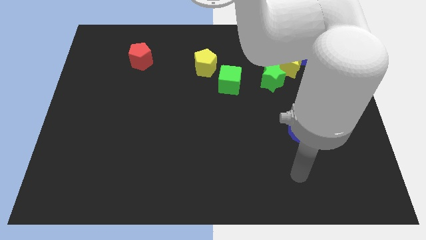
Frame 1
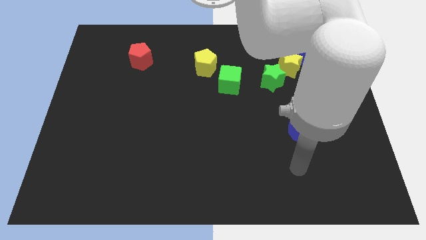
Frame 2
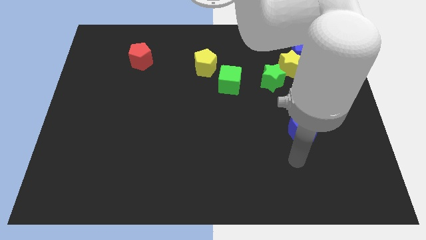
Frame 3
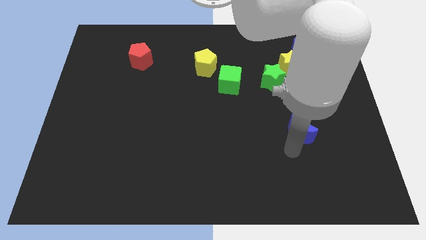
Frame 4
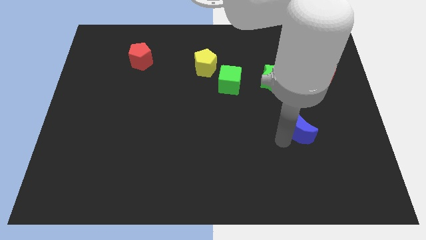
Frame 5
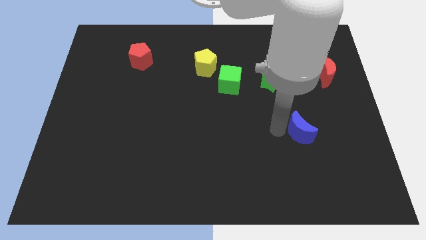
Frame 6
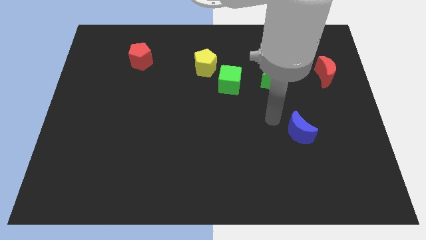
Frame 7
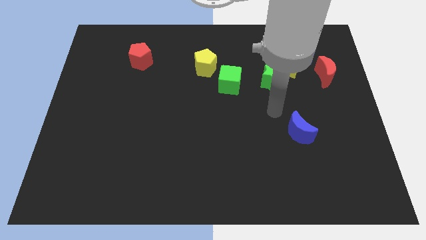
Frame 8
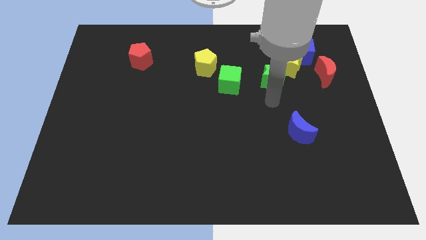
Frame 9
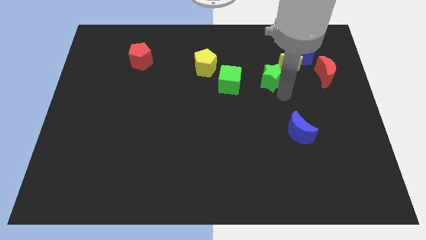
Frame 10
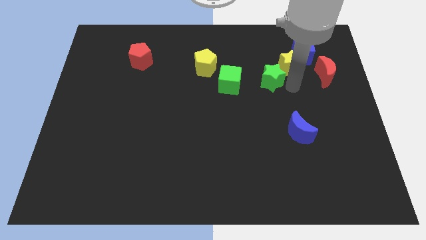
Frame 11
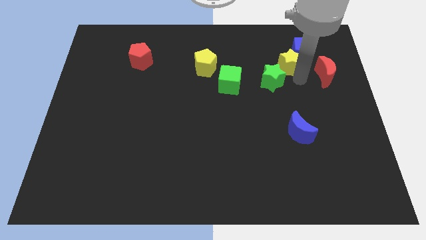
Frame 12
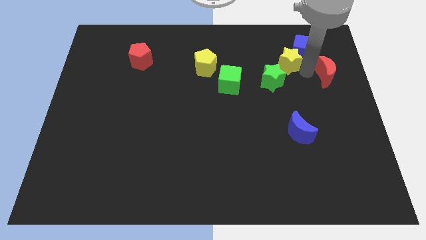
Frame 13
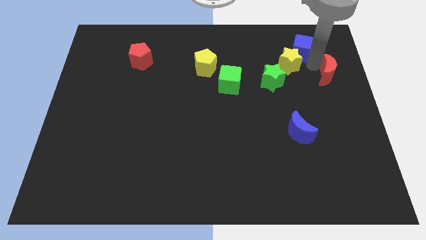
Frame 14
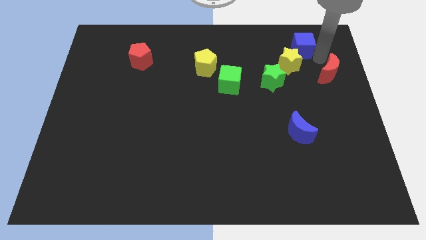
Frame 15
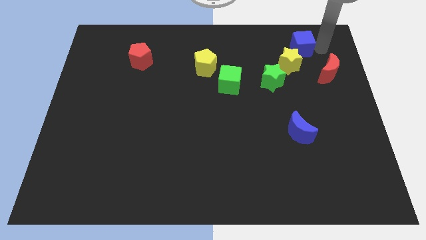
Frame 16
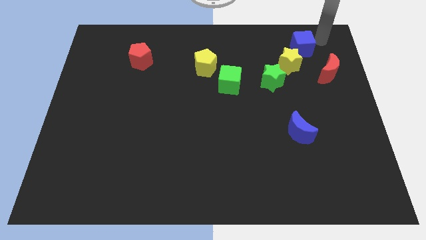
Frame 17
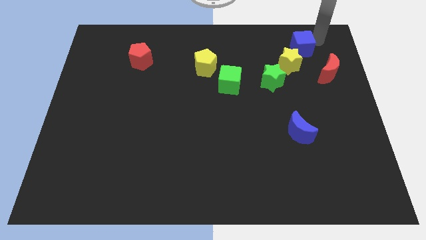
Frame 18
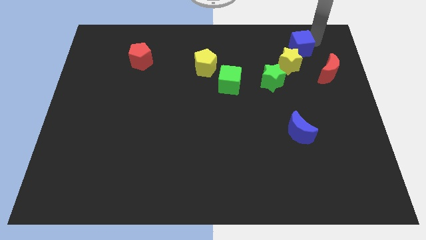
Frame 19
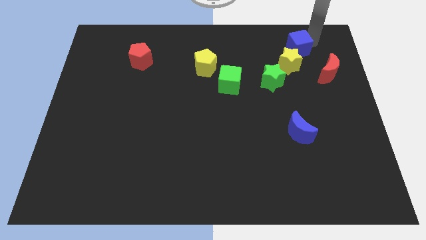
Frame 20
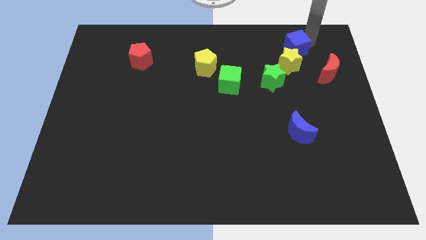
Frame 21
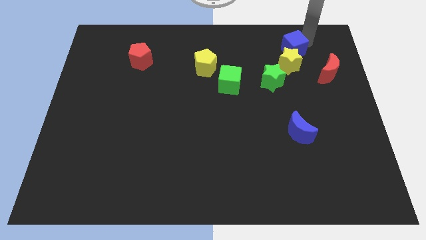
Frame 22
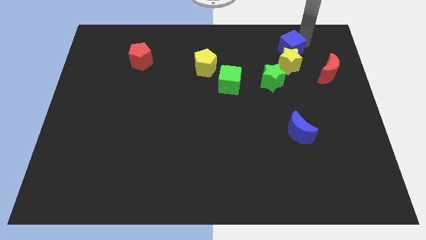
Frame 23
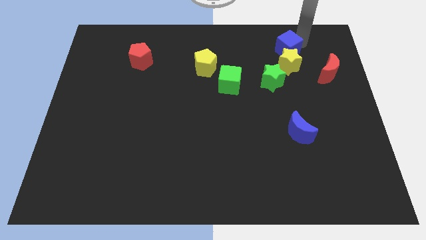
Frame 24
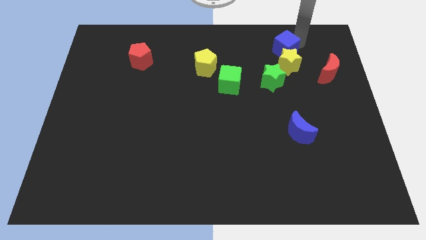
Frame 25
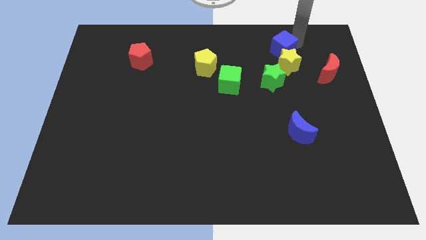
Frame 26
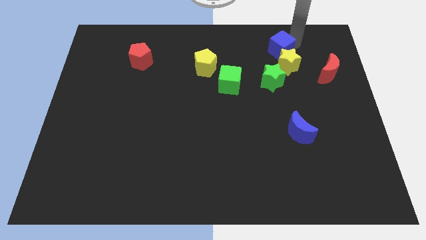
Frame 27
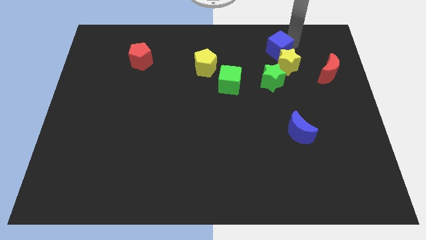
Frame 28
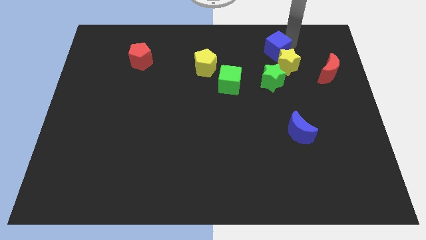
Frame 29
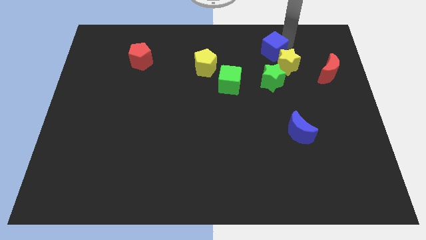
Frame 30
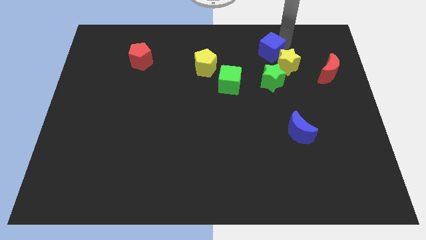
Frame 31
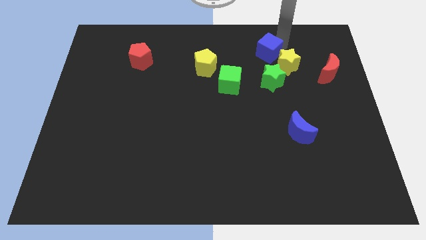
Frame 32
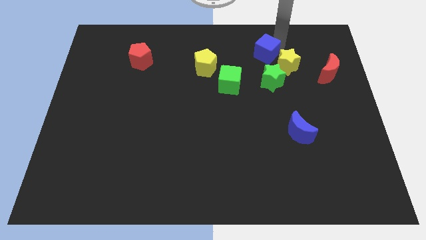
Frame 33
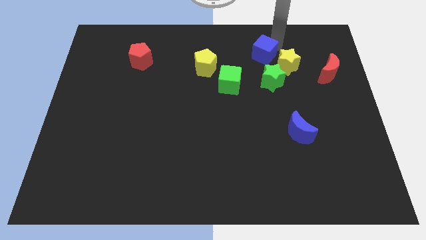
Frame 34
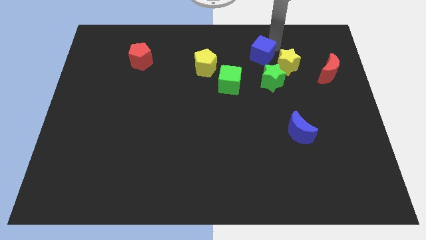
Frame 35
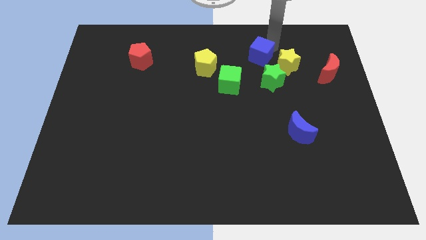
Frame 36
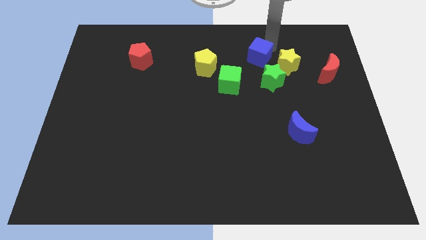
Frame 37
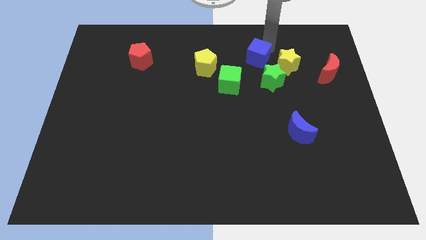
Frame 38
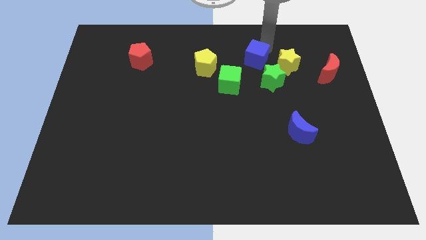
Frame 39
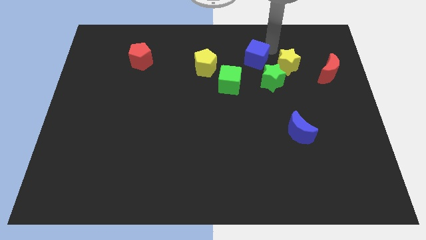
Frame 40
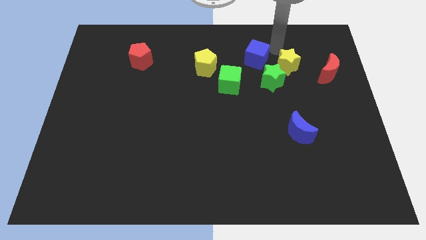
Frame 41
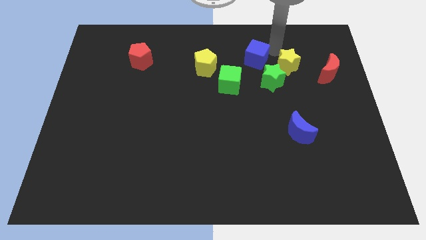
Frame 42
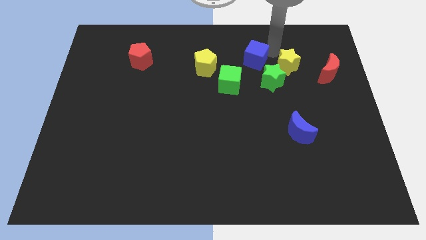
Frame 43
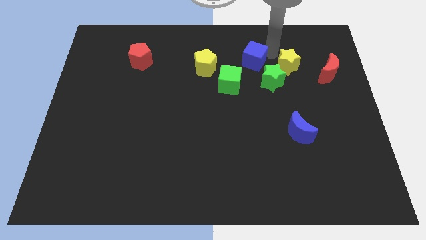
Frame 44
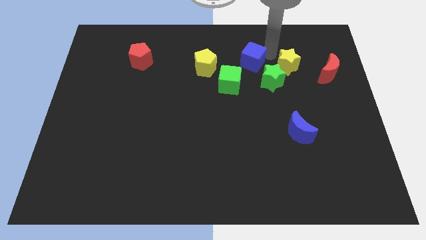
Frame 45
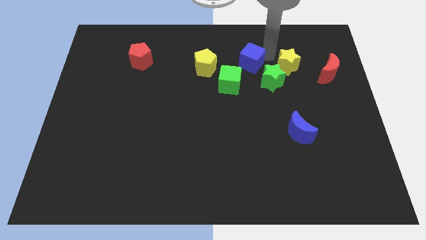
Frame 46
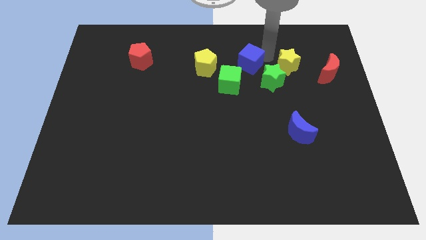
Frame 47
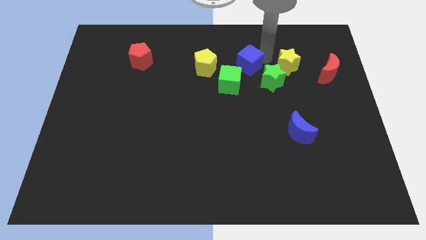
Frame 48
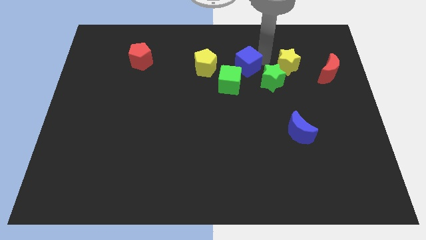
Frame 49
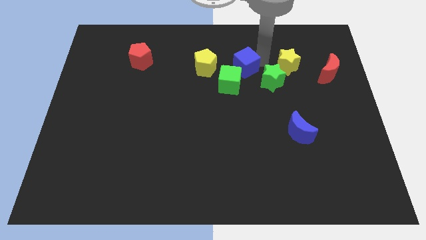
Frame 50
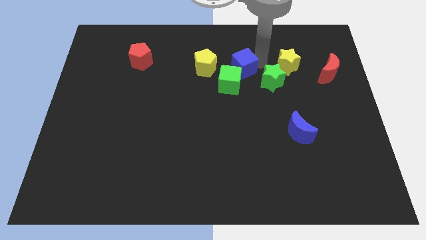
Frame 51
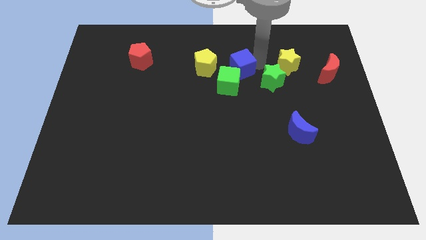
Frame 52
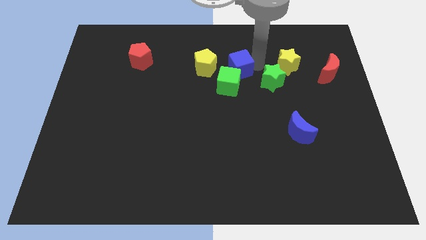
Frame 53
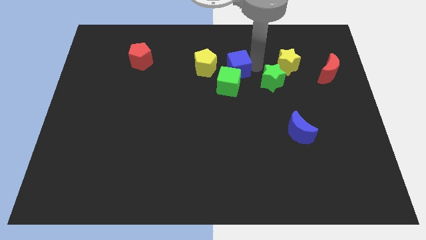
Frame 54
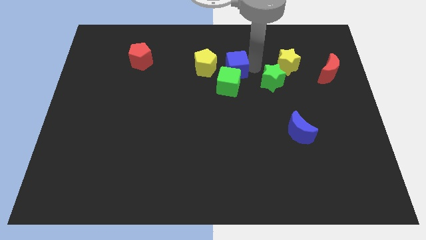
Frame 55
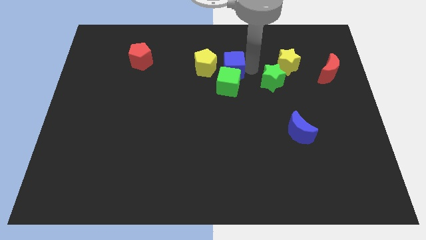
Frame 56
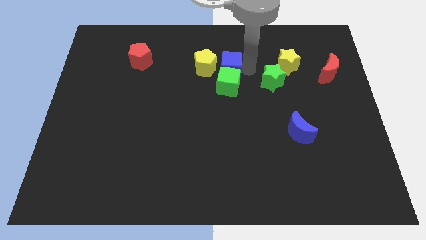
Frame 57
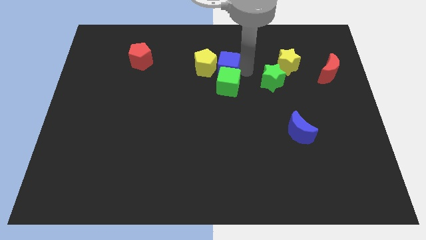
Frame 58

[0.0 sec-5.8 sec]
move the blue cube next to the yellow pentagon
